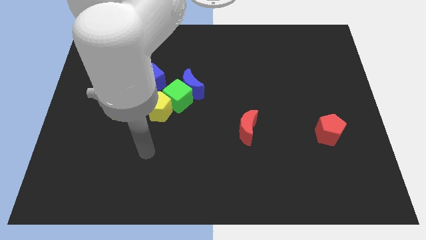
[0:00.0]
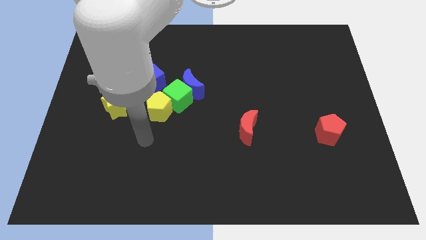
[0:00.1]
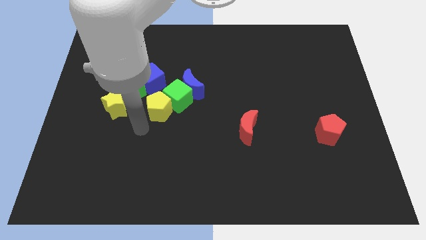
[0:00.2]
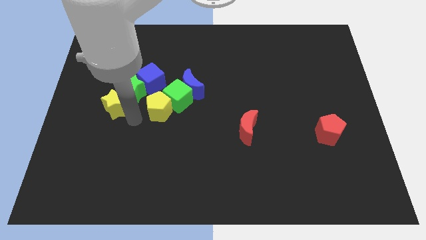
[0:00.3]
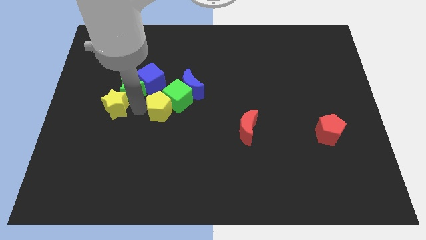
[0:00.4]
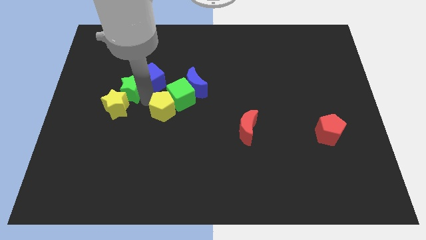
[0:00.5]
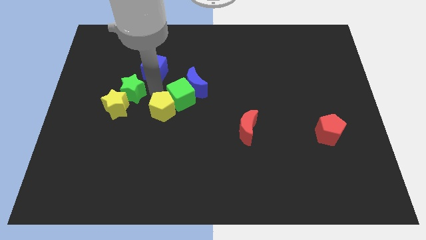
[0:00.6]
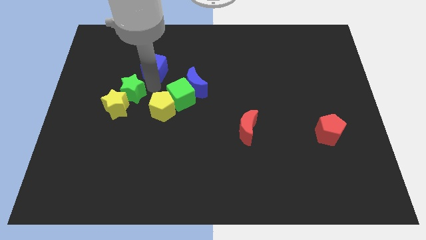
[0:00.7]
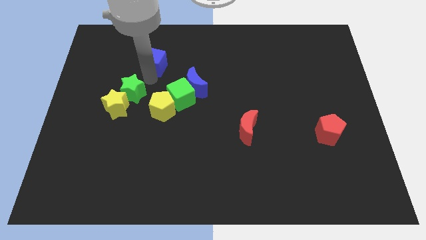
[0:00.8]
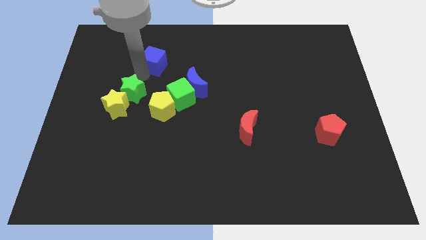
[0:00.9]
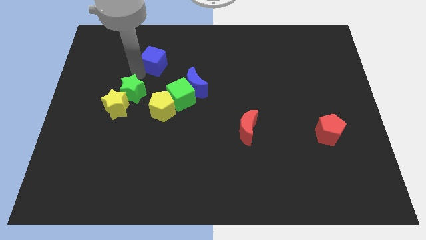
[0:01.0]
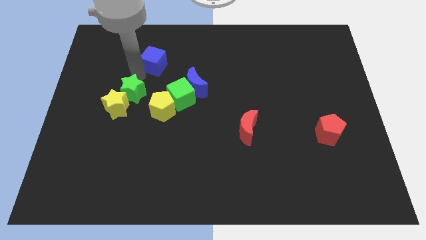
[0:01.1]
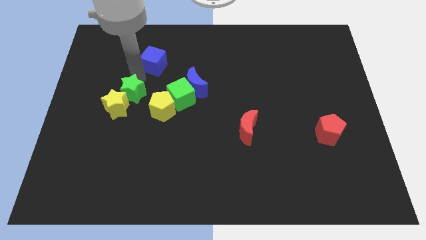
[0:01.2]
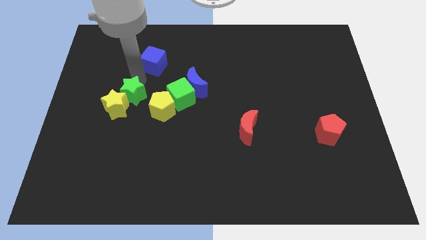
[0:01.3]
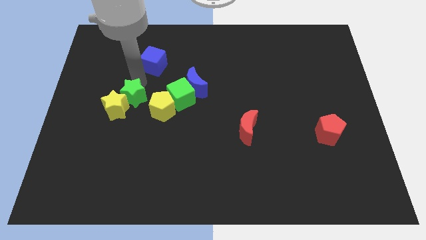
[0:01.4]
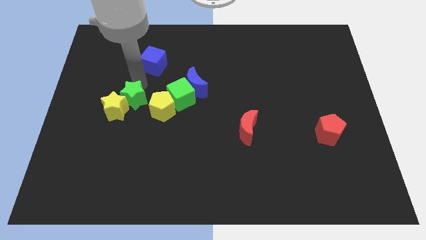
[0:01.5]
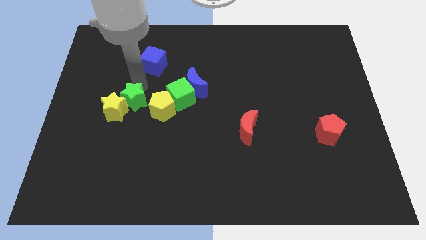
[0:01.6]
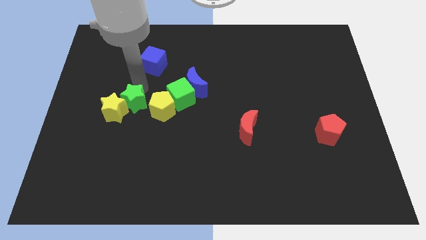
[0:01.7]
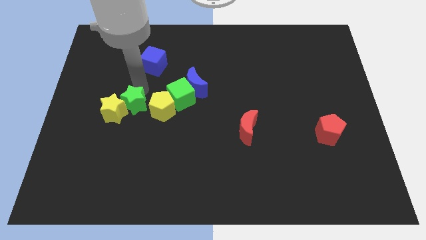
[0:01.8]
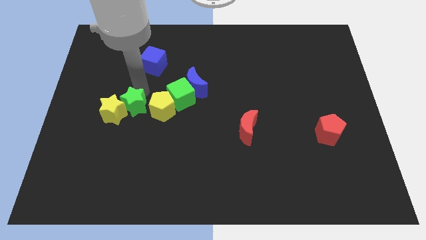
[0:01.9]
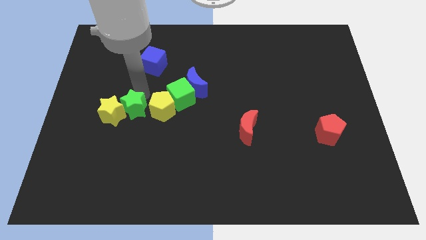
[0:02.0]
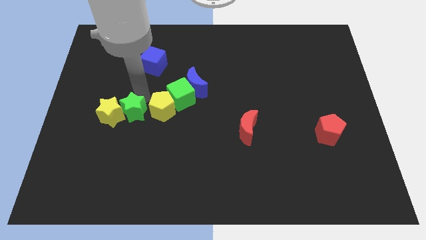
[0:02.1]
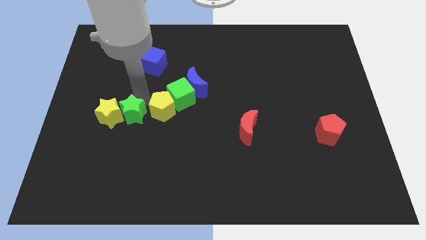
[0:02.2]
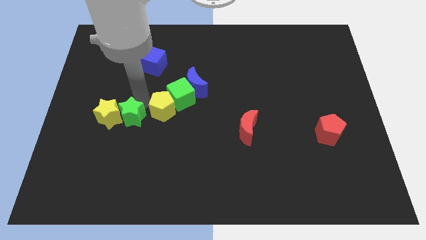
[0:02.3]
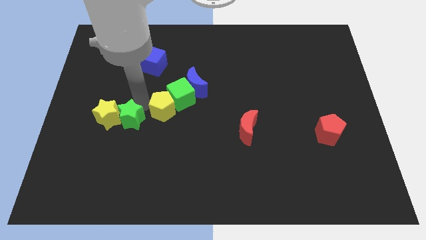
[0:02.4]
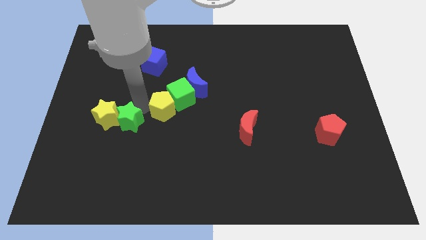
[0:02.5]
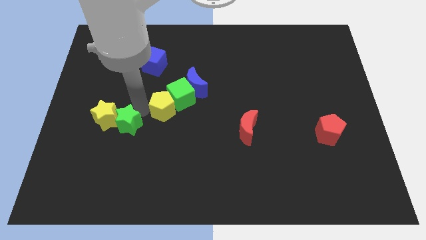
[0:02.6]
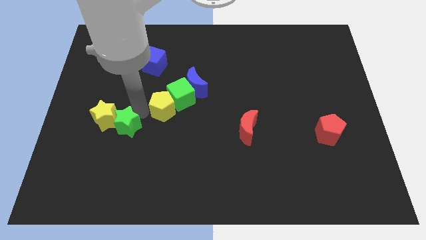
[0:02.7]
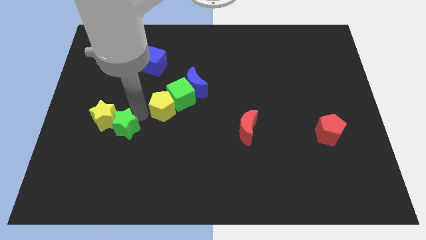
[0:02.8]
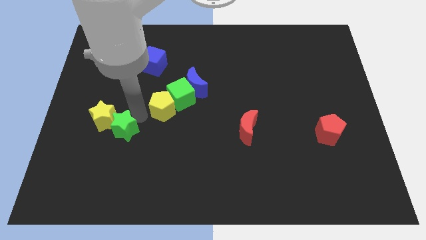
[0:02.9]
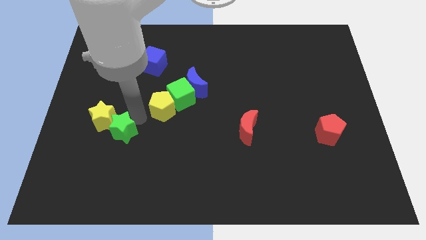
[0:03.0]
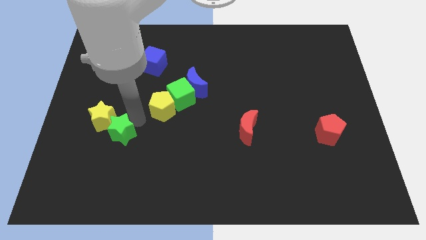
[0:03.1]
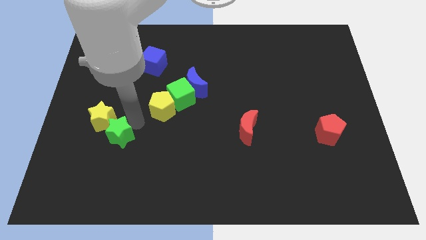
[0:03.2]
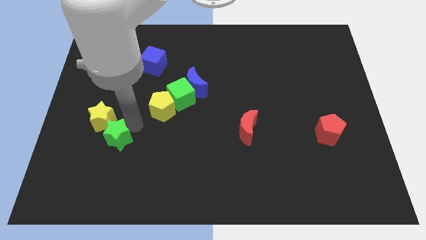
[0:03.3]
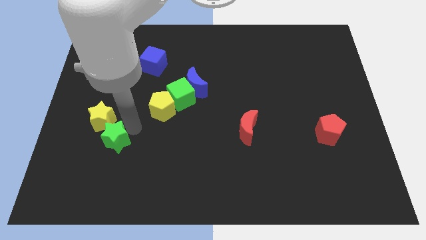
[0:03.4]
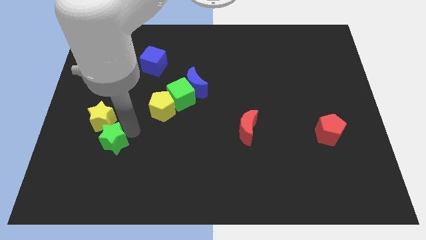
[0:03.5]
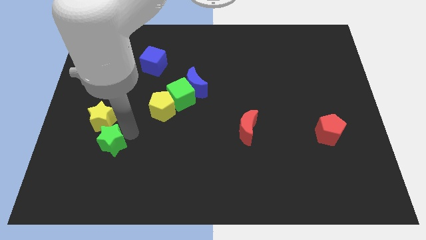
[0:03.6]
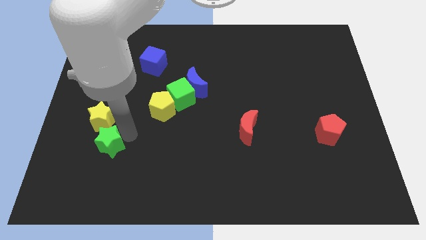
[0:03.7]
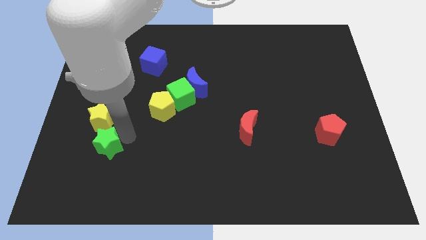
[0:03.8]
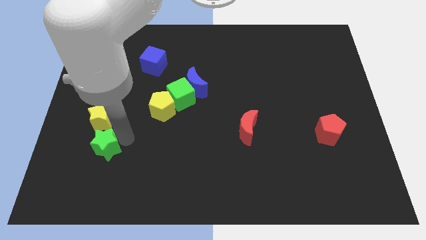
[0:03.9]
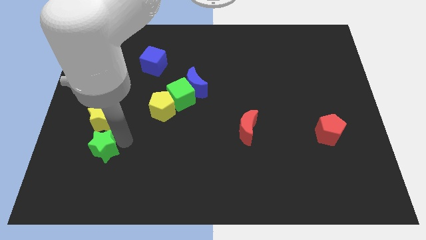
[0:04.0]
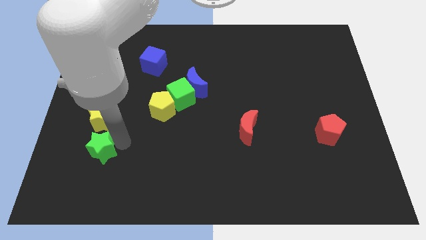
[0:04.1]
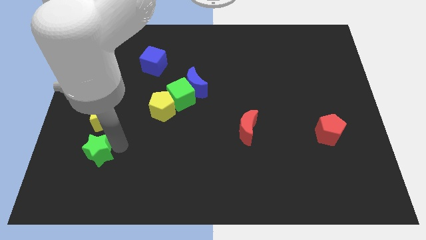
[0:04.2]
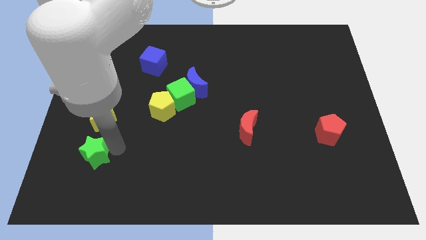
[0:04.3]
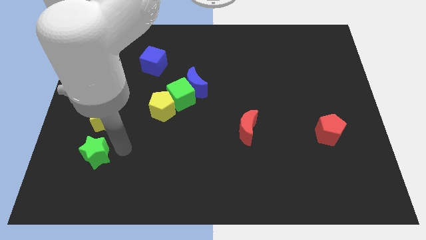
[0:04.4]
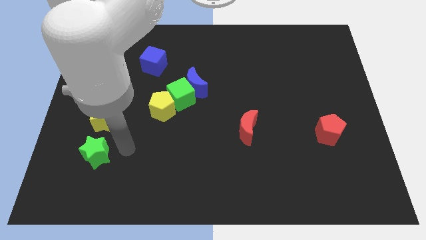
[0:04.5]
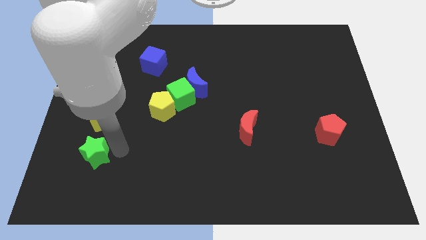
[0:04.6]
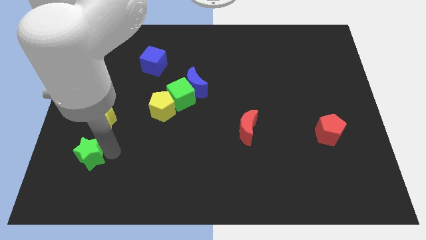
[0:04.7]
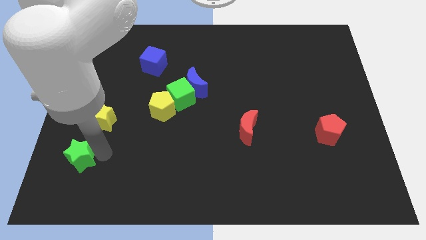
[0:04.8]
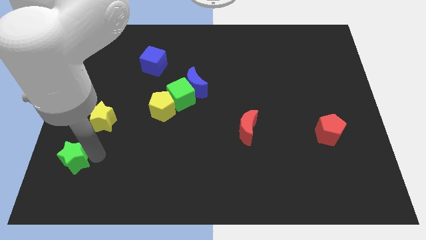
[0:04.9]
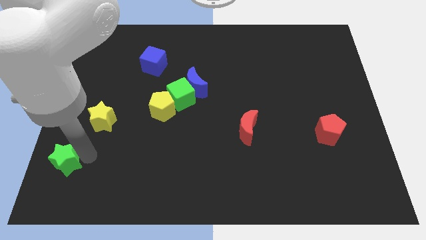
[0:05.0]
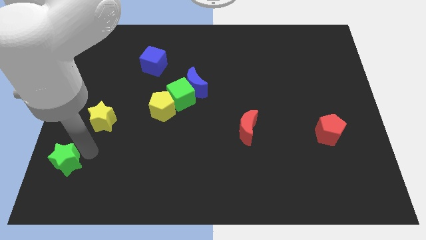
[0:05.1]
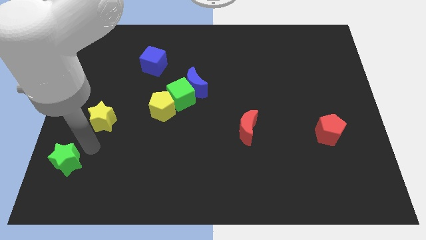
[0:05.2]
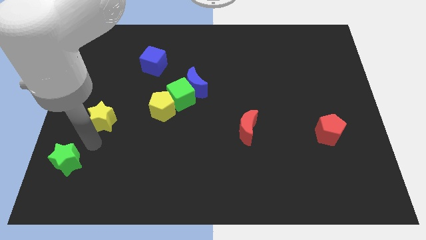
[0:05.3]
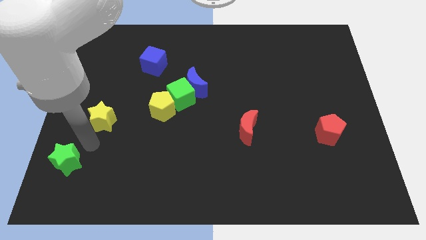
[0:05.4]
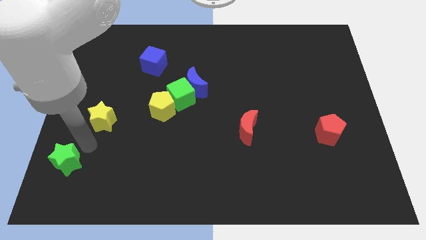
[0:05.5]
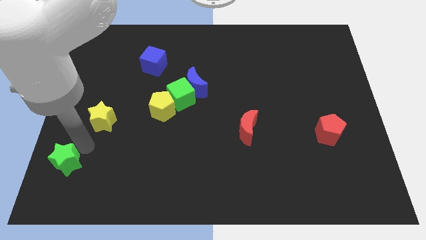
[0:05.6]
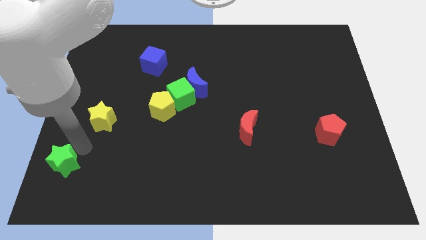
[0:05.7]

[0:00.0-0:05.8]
put the green star to the bottom left corner

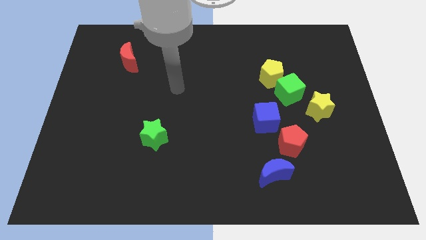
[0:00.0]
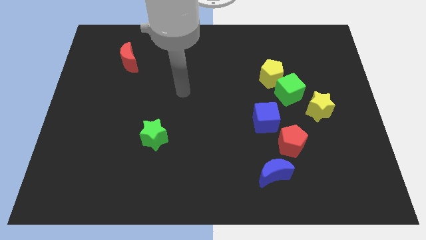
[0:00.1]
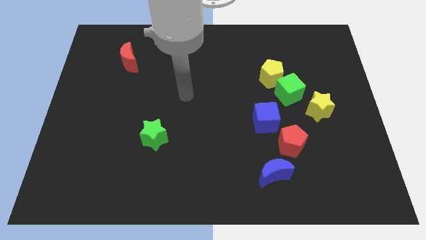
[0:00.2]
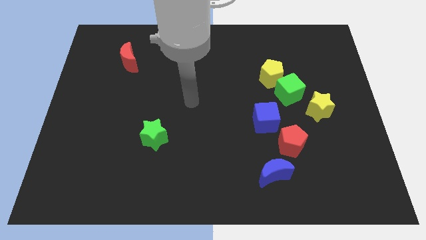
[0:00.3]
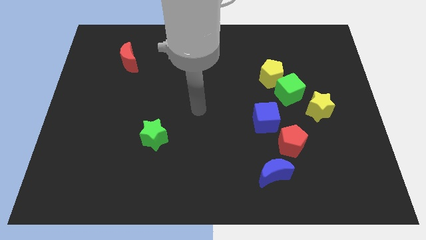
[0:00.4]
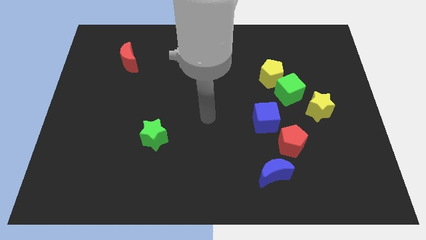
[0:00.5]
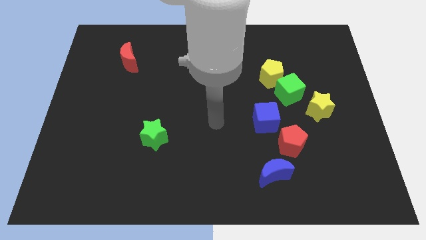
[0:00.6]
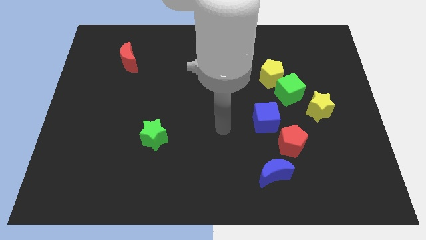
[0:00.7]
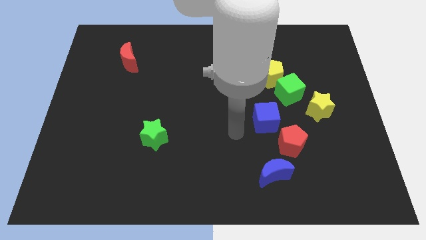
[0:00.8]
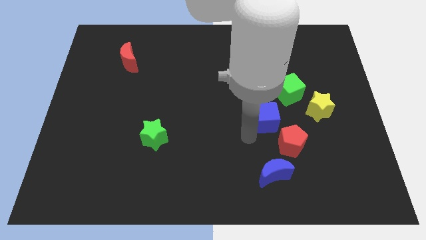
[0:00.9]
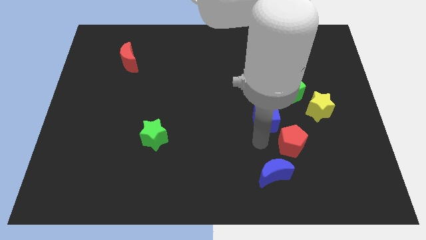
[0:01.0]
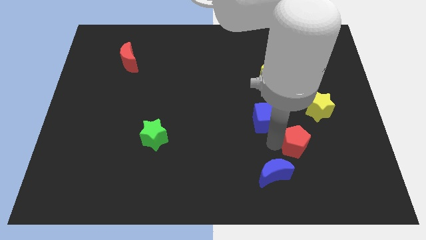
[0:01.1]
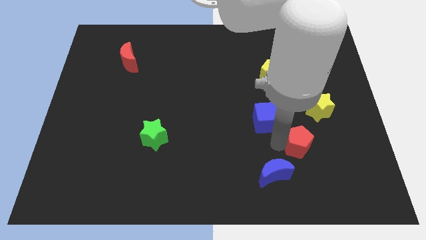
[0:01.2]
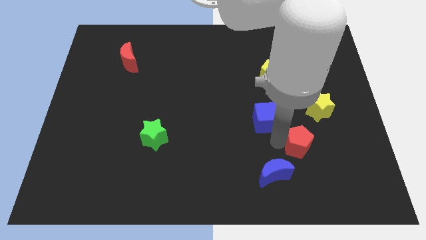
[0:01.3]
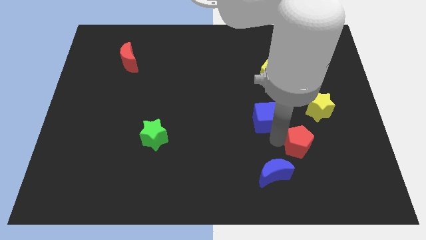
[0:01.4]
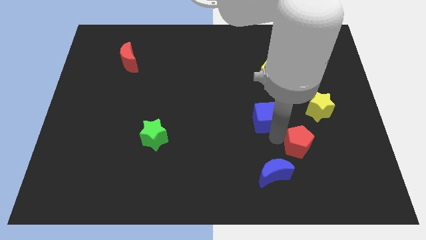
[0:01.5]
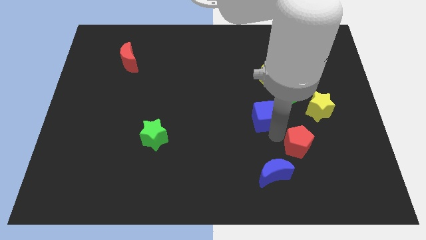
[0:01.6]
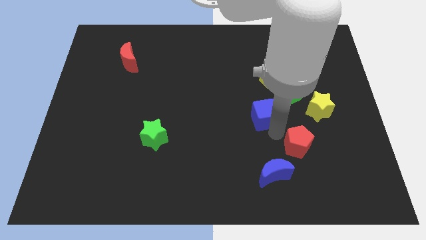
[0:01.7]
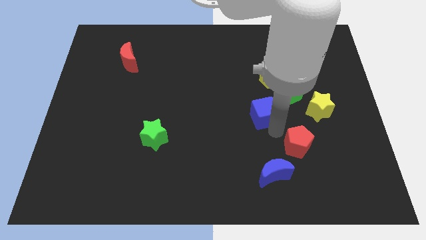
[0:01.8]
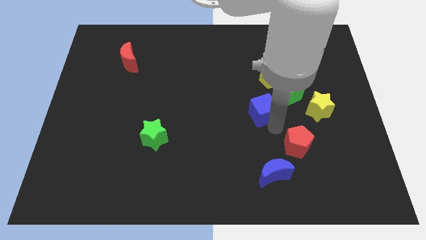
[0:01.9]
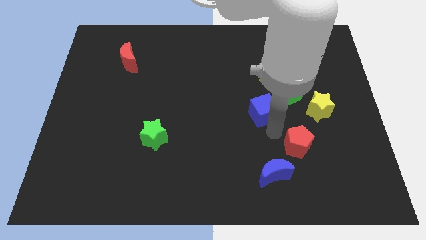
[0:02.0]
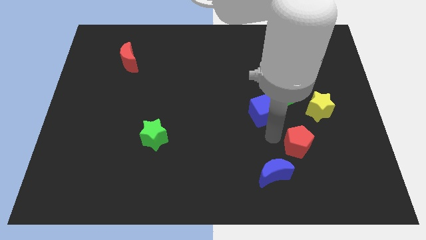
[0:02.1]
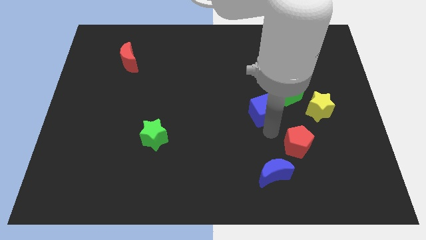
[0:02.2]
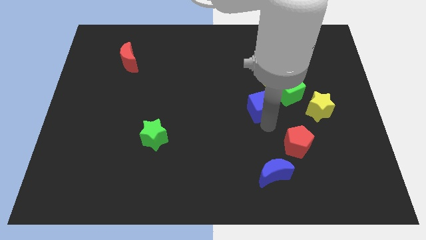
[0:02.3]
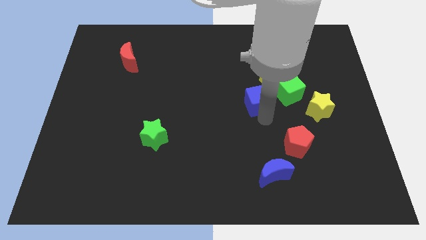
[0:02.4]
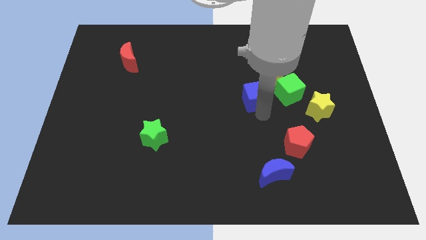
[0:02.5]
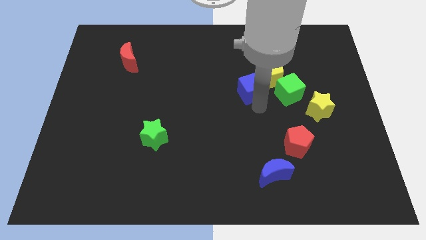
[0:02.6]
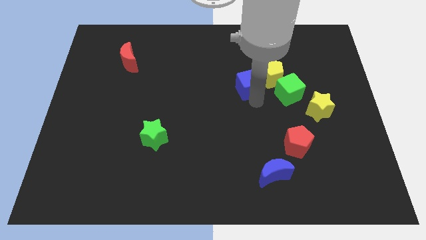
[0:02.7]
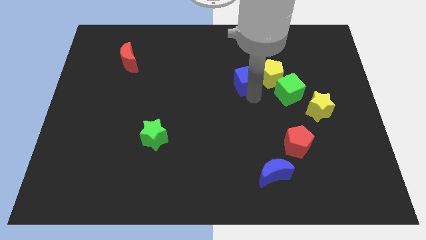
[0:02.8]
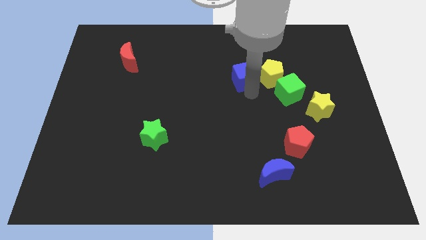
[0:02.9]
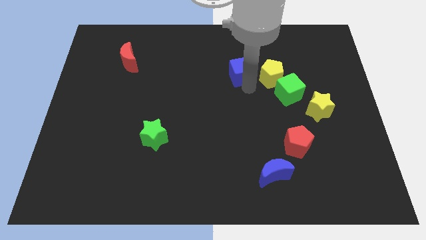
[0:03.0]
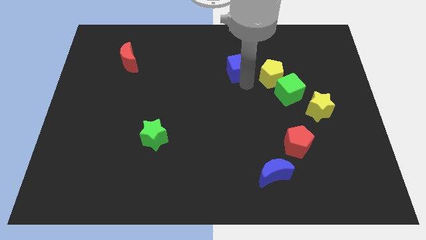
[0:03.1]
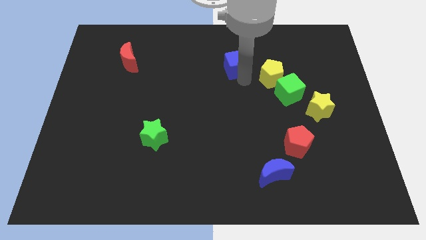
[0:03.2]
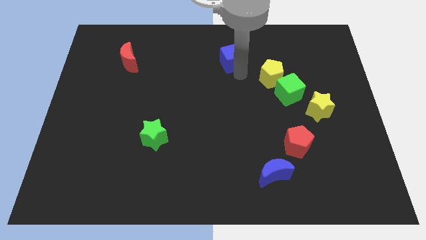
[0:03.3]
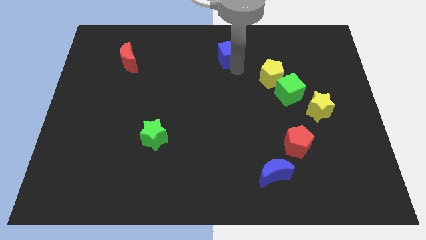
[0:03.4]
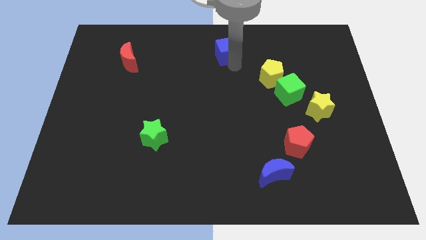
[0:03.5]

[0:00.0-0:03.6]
put the blue cube to the top
